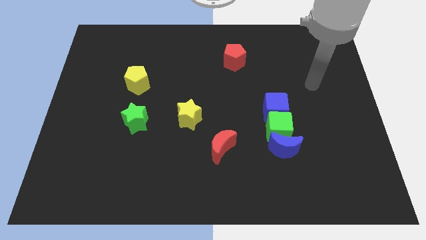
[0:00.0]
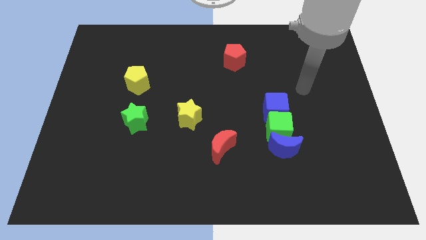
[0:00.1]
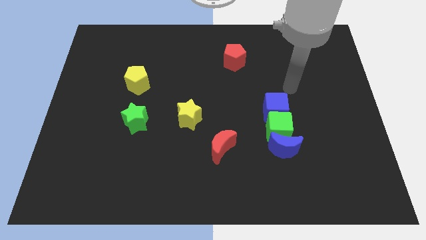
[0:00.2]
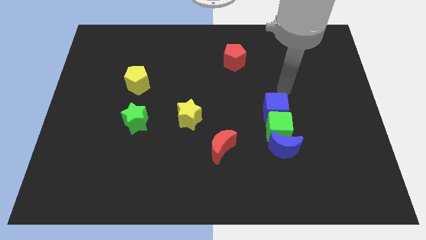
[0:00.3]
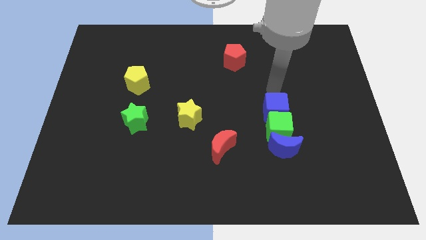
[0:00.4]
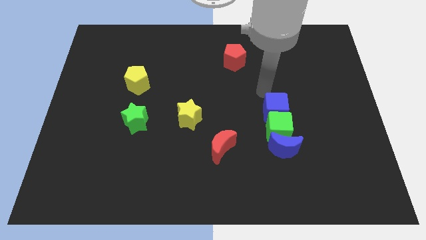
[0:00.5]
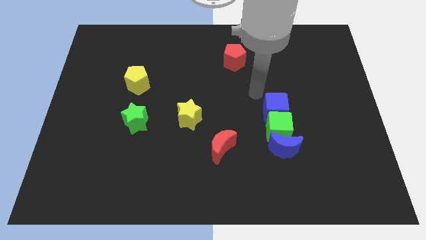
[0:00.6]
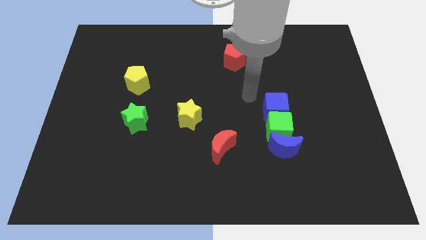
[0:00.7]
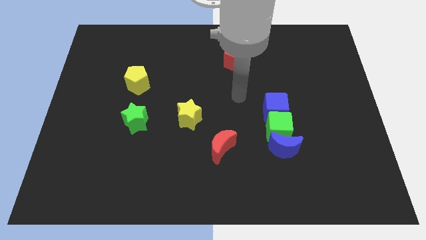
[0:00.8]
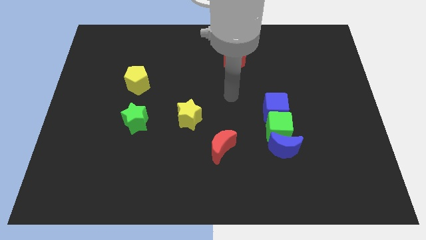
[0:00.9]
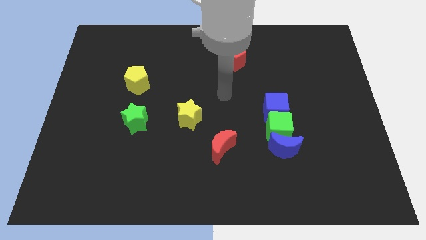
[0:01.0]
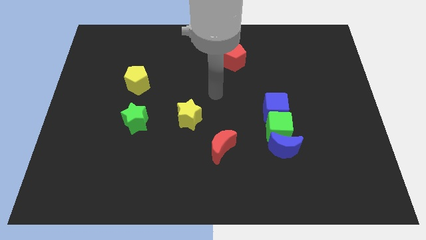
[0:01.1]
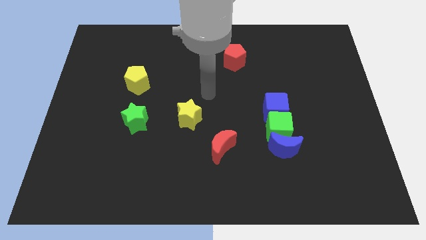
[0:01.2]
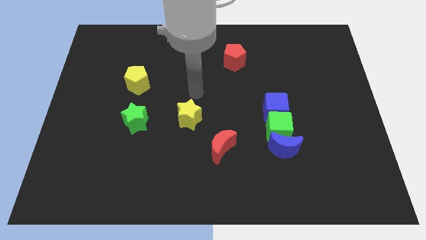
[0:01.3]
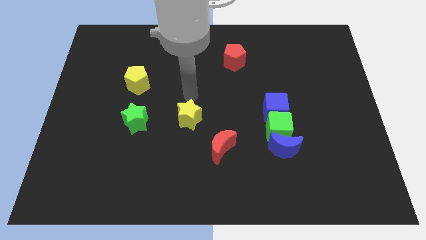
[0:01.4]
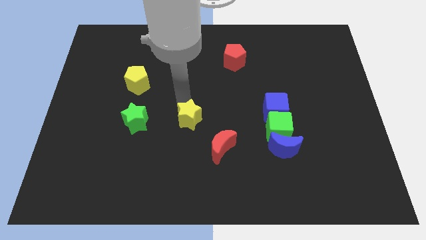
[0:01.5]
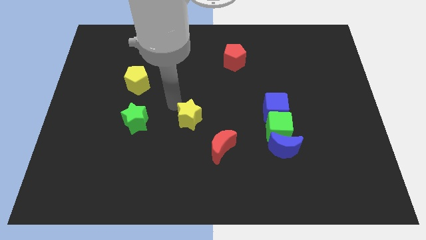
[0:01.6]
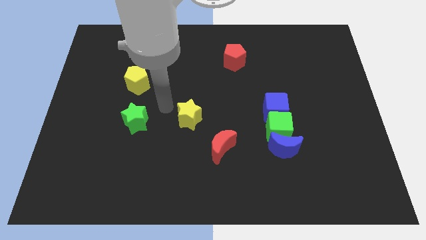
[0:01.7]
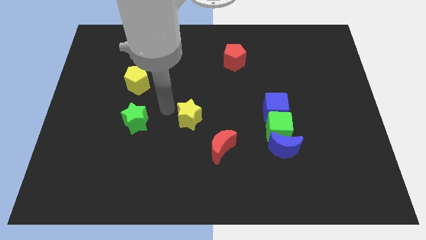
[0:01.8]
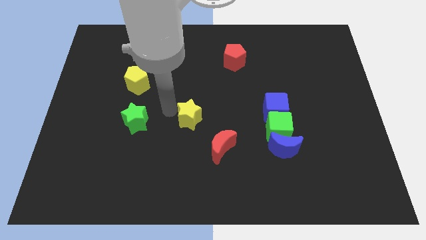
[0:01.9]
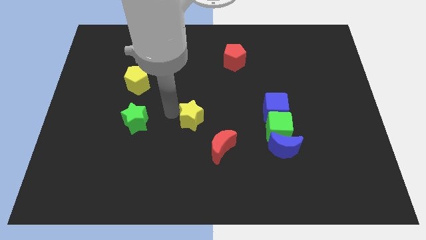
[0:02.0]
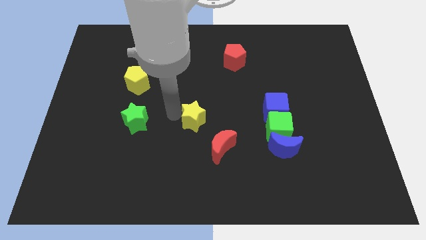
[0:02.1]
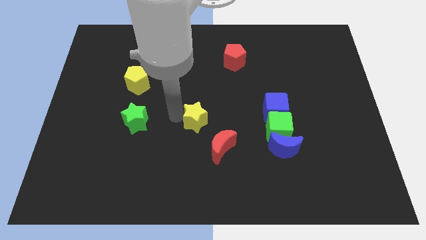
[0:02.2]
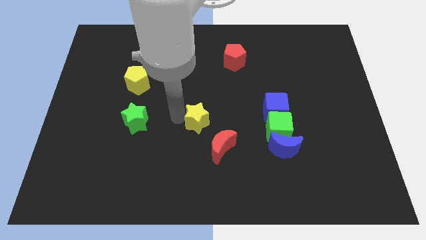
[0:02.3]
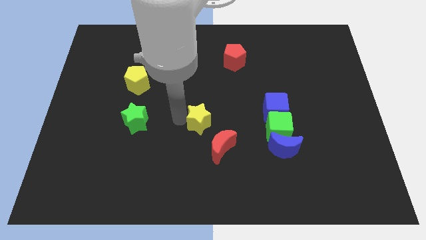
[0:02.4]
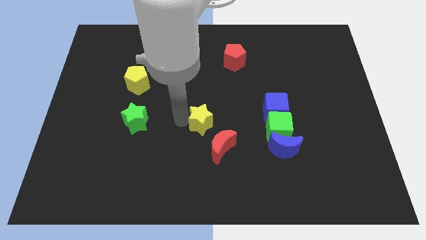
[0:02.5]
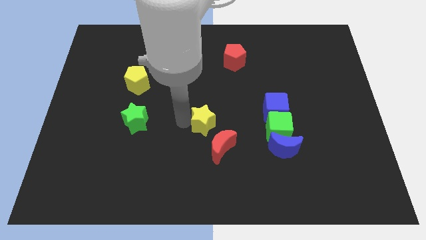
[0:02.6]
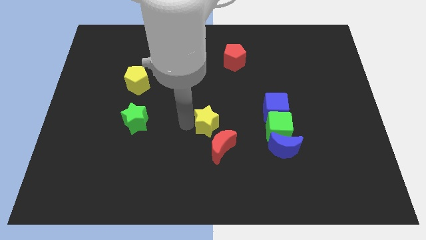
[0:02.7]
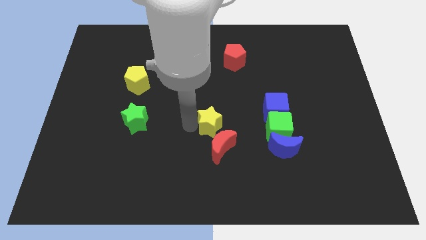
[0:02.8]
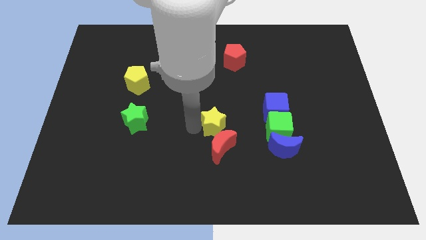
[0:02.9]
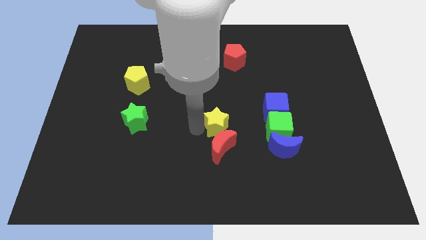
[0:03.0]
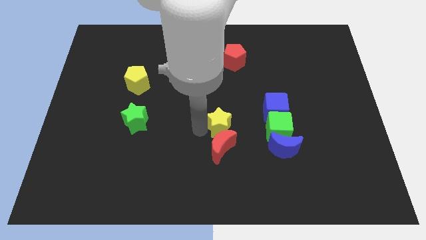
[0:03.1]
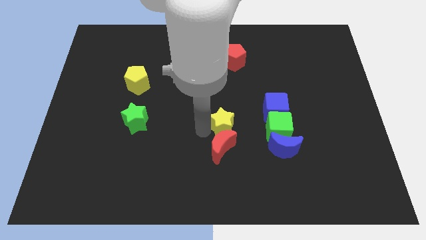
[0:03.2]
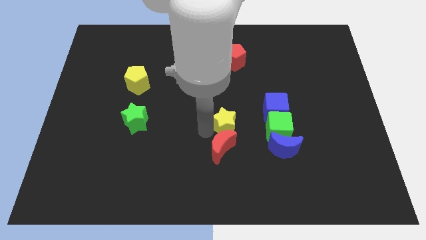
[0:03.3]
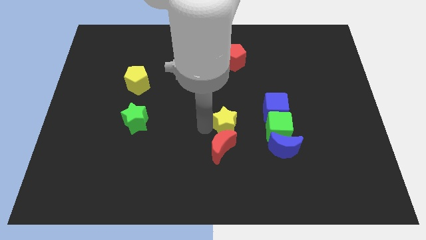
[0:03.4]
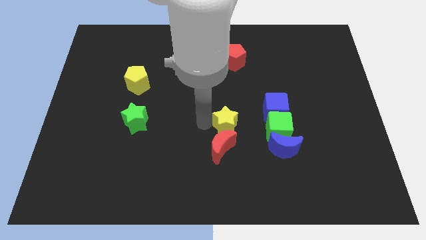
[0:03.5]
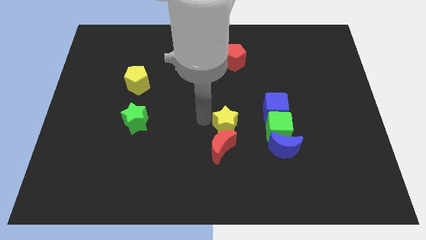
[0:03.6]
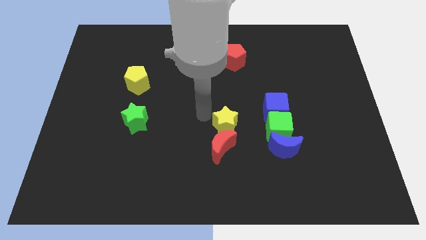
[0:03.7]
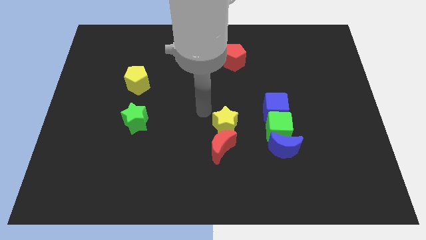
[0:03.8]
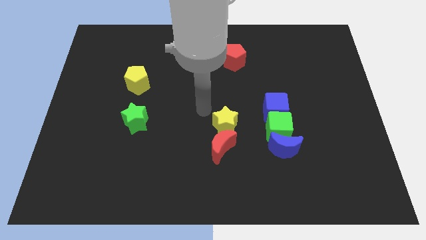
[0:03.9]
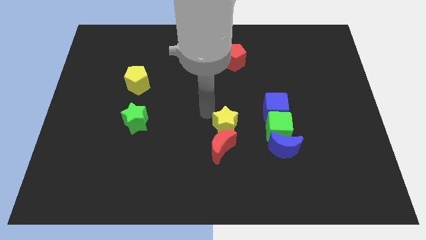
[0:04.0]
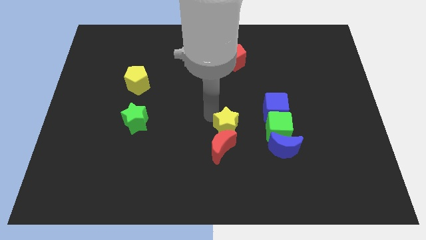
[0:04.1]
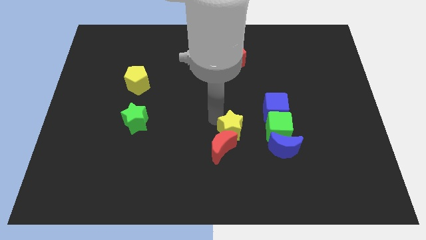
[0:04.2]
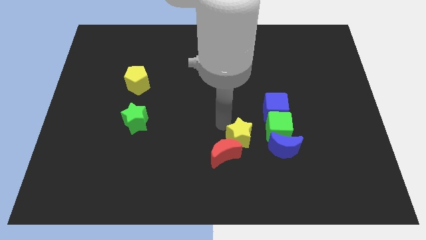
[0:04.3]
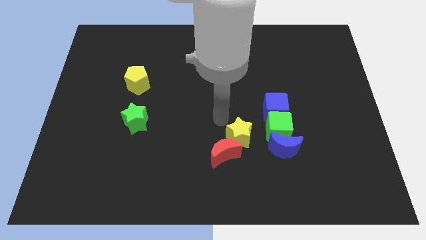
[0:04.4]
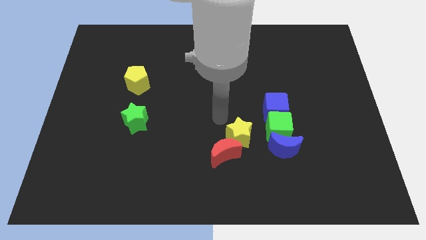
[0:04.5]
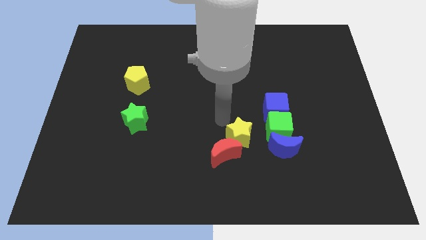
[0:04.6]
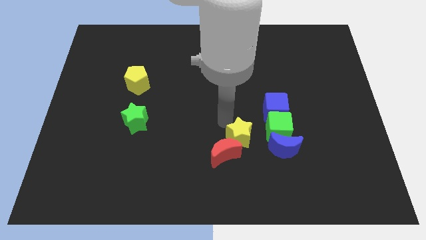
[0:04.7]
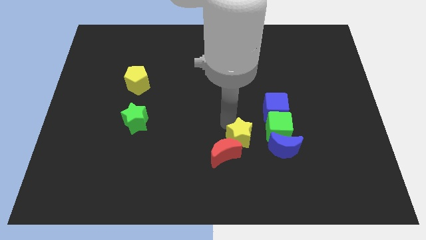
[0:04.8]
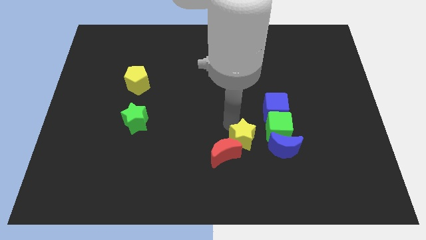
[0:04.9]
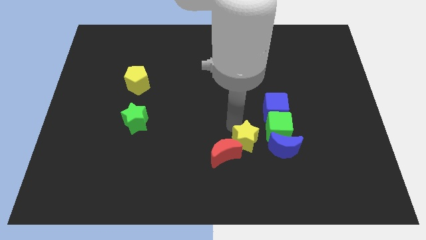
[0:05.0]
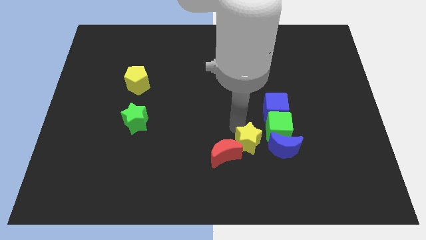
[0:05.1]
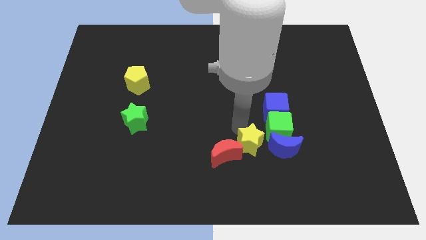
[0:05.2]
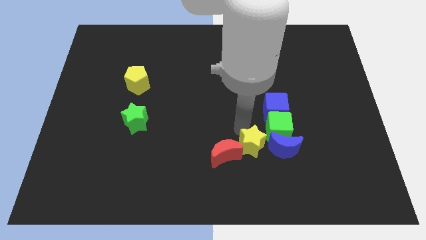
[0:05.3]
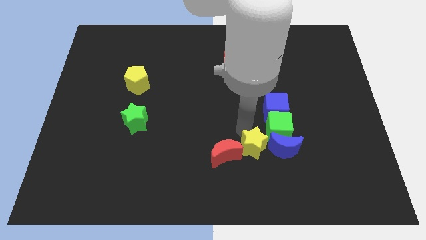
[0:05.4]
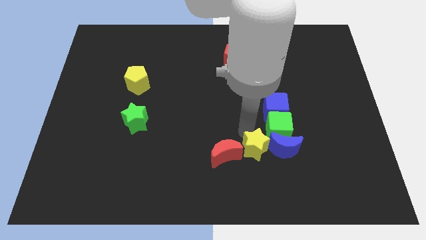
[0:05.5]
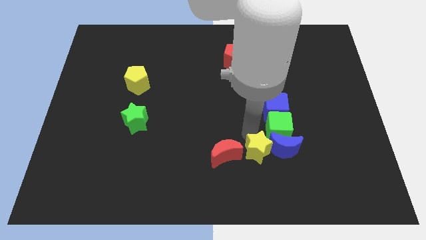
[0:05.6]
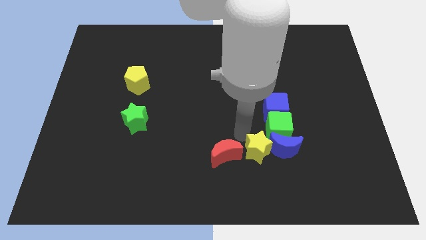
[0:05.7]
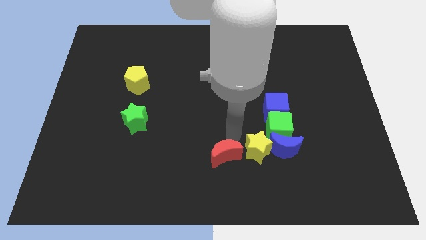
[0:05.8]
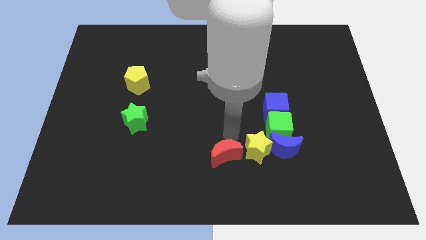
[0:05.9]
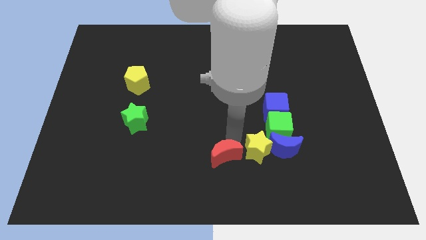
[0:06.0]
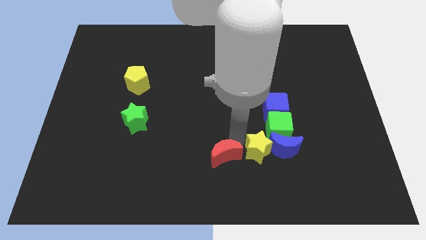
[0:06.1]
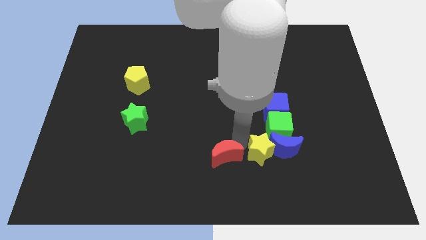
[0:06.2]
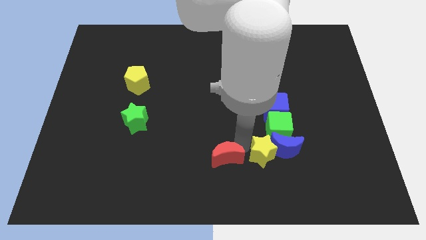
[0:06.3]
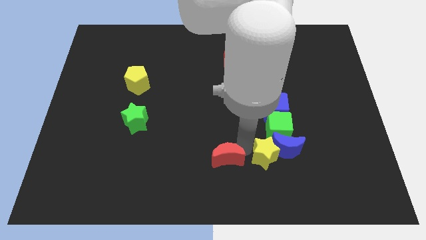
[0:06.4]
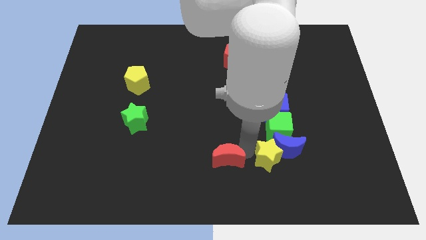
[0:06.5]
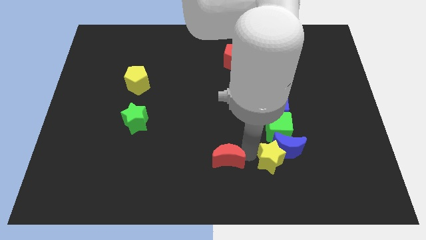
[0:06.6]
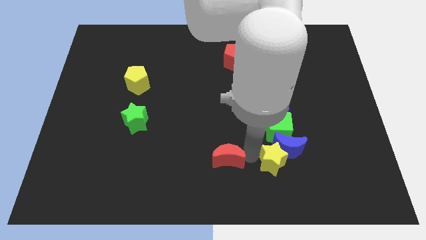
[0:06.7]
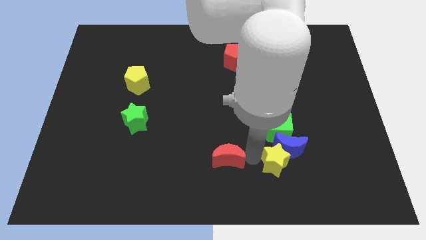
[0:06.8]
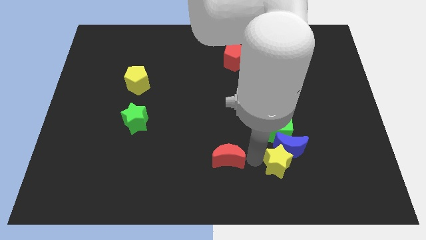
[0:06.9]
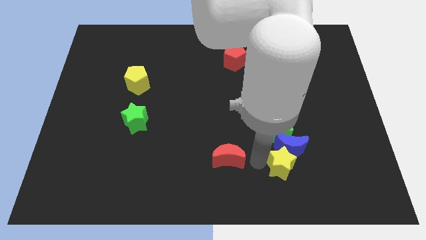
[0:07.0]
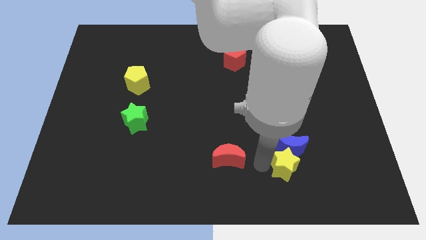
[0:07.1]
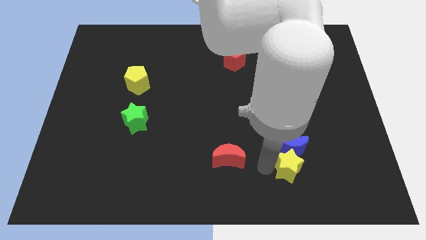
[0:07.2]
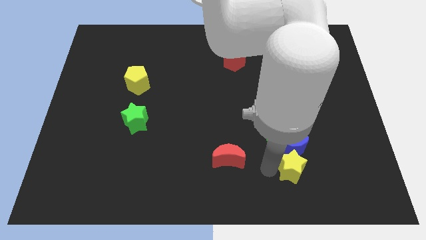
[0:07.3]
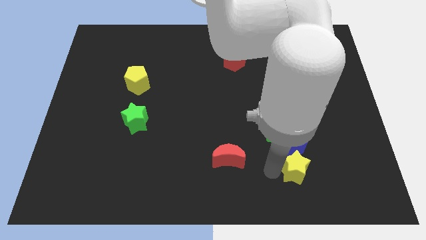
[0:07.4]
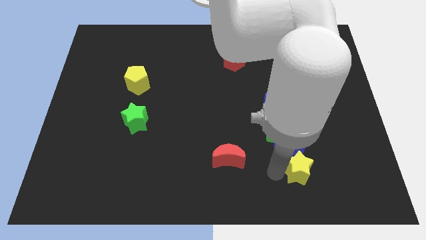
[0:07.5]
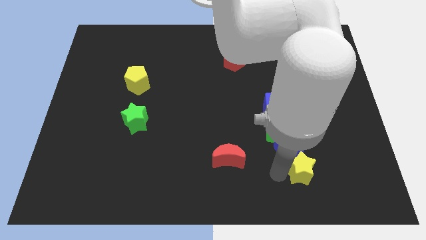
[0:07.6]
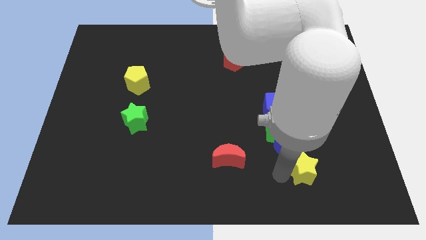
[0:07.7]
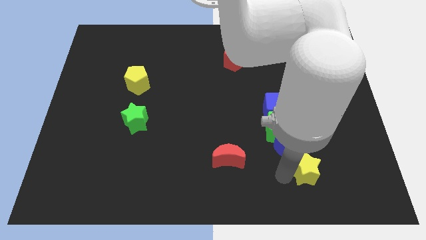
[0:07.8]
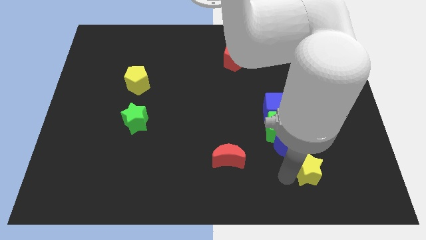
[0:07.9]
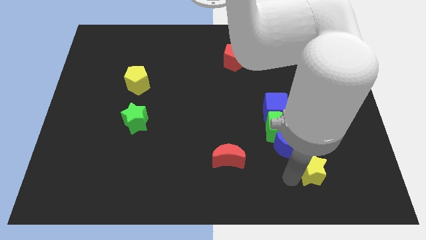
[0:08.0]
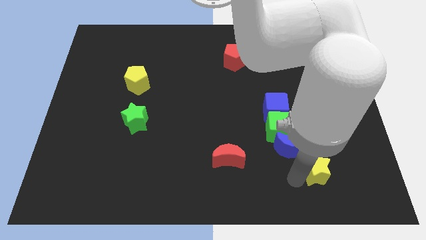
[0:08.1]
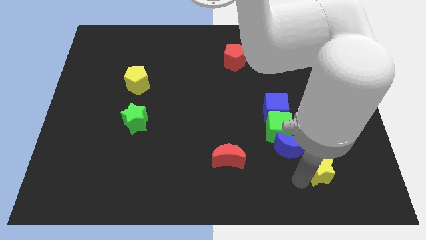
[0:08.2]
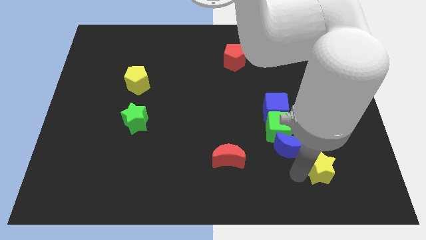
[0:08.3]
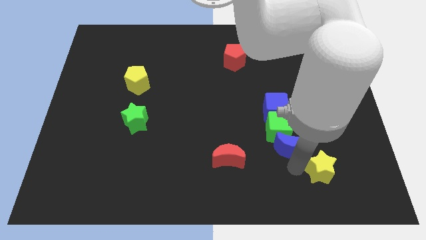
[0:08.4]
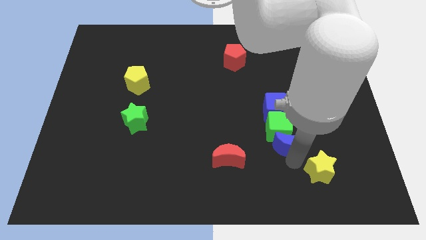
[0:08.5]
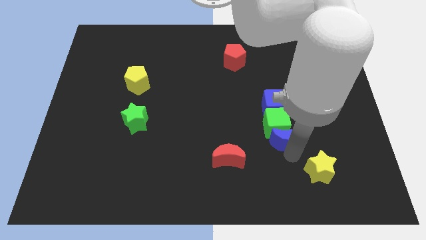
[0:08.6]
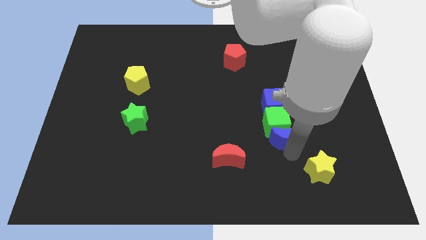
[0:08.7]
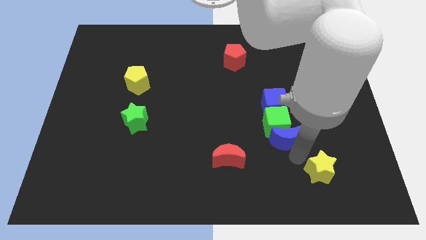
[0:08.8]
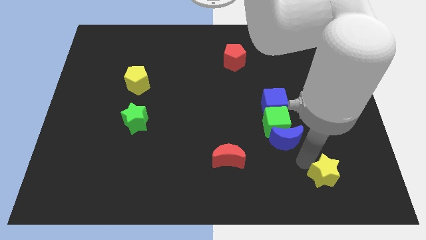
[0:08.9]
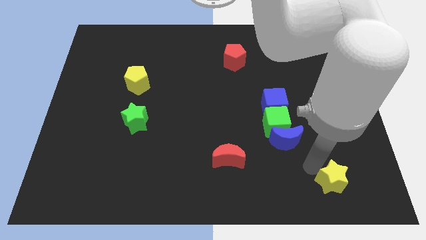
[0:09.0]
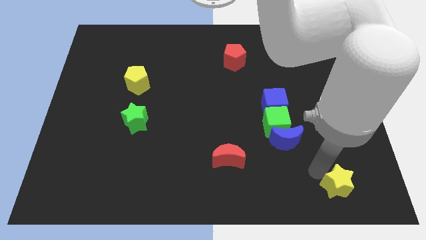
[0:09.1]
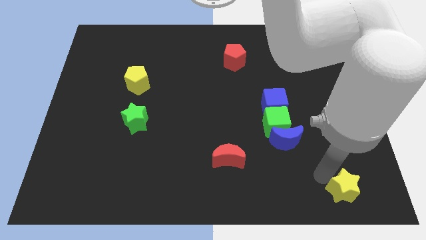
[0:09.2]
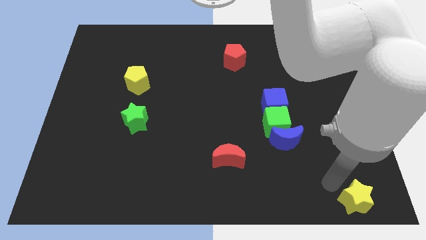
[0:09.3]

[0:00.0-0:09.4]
move the yellow star to the bottom right corner
